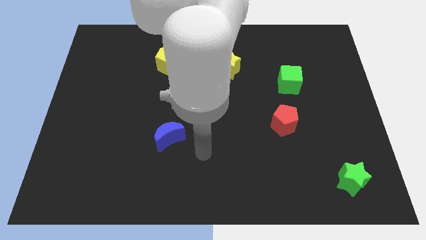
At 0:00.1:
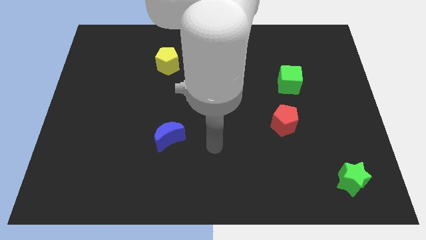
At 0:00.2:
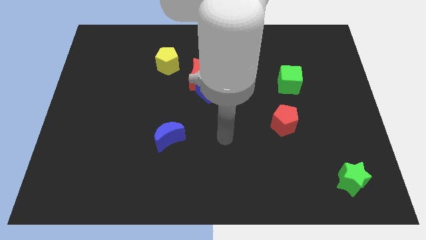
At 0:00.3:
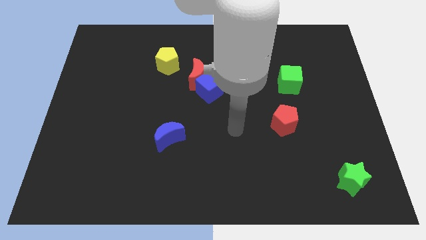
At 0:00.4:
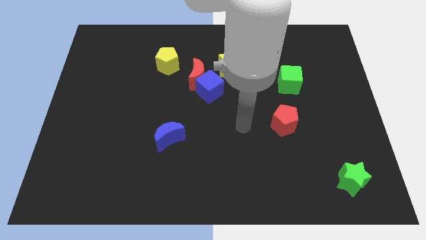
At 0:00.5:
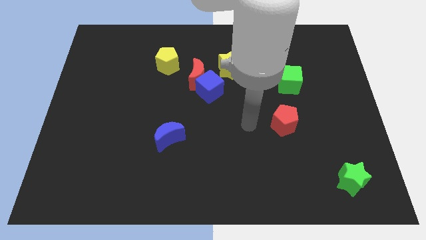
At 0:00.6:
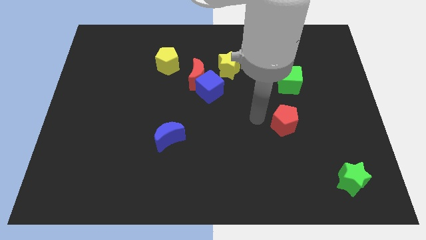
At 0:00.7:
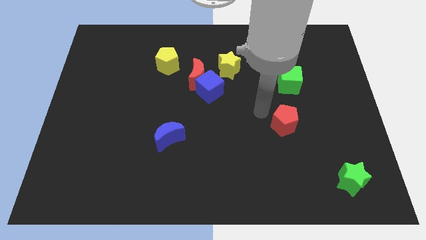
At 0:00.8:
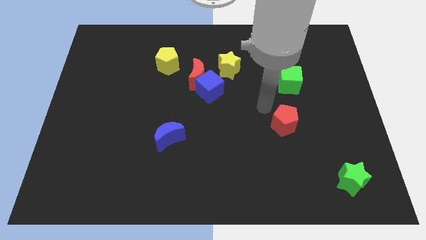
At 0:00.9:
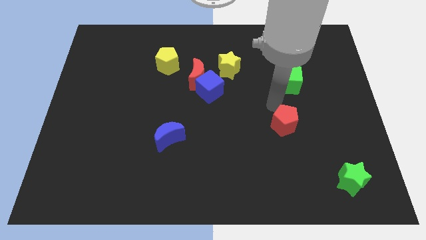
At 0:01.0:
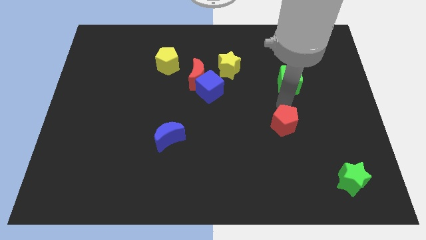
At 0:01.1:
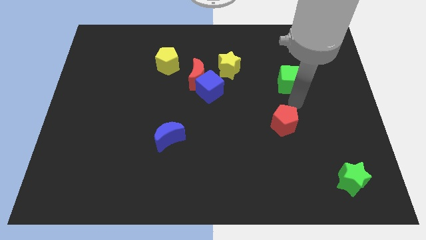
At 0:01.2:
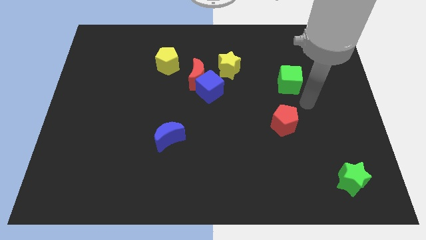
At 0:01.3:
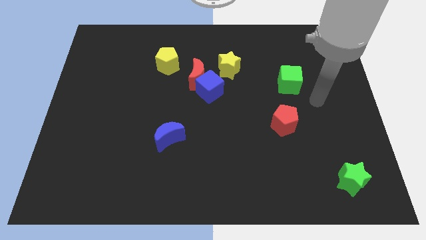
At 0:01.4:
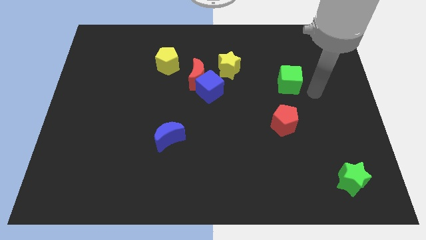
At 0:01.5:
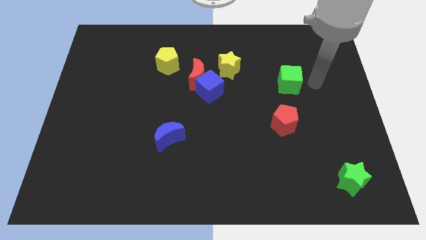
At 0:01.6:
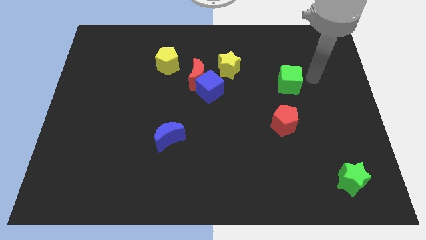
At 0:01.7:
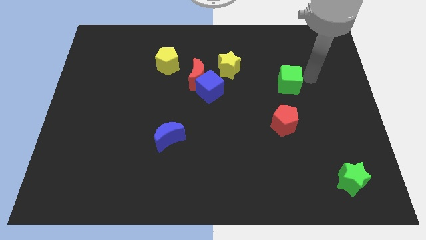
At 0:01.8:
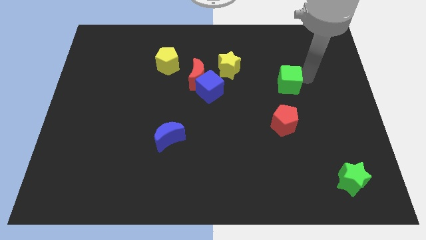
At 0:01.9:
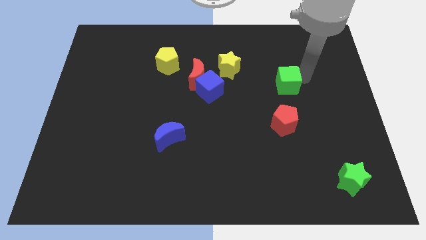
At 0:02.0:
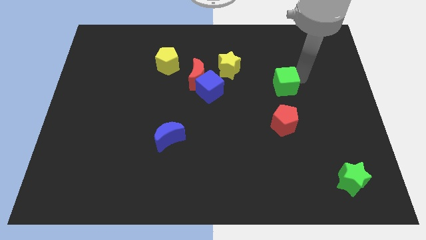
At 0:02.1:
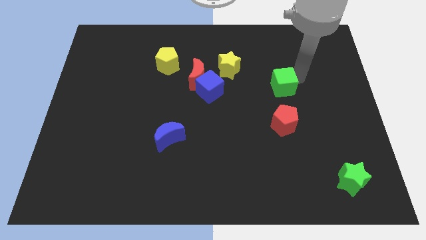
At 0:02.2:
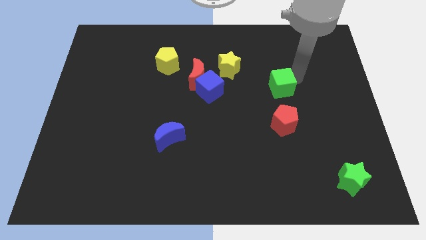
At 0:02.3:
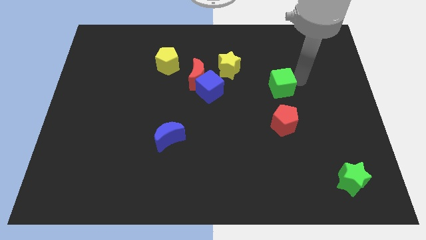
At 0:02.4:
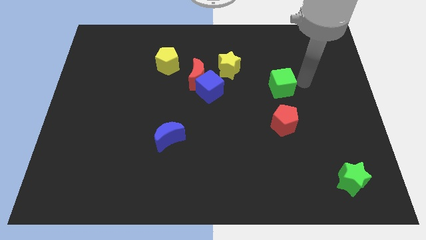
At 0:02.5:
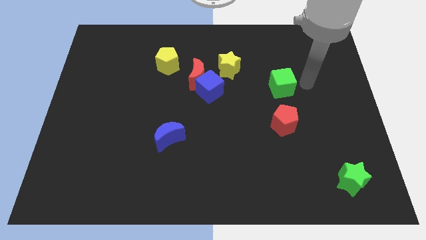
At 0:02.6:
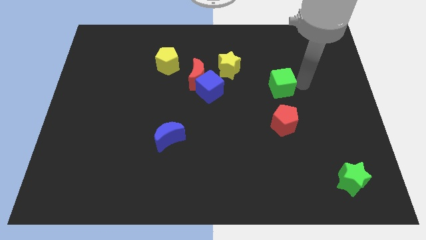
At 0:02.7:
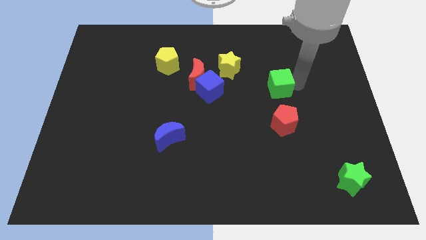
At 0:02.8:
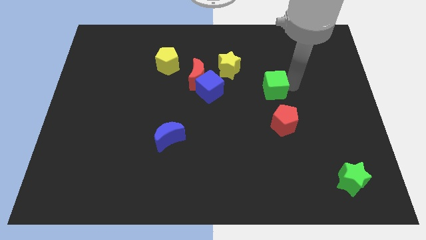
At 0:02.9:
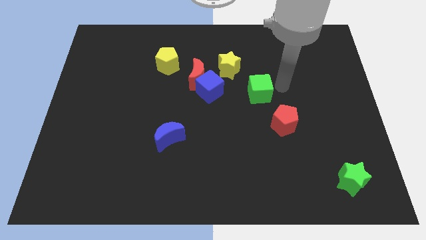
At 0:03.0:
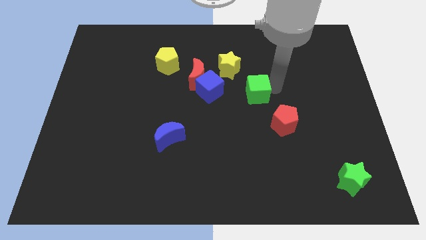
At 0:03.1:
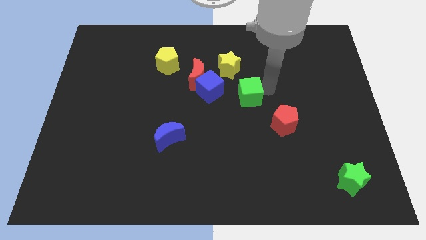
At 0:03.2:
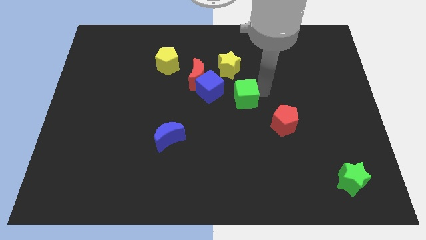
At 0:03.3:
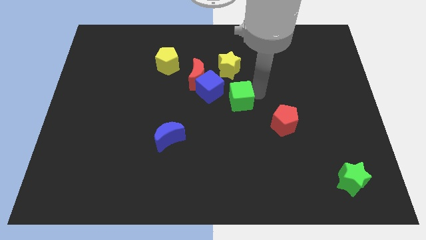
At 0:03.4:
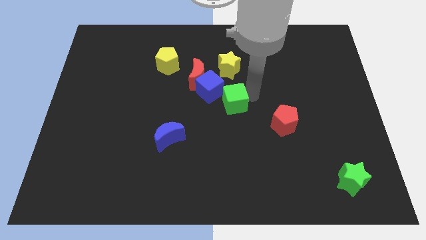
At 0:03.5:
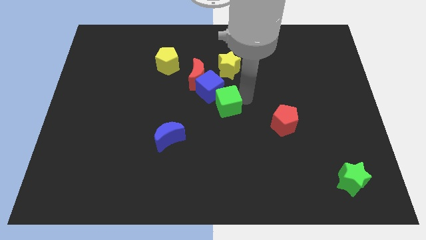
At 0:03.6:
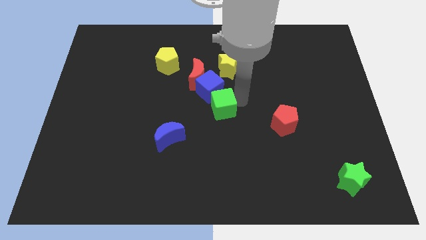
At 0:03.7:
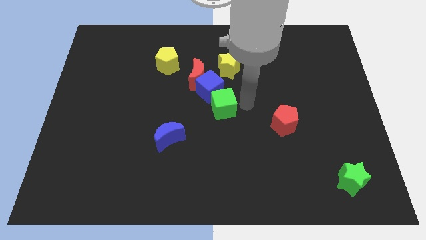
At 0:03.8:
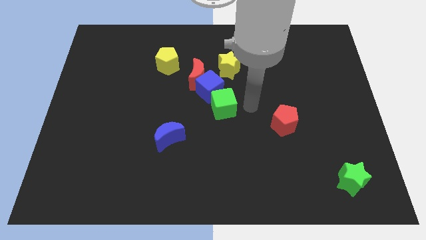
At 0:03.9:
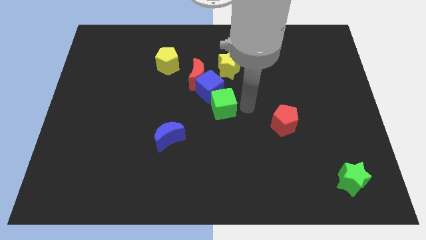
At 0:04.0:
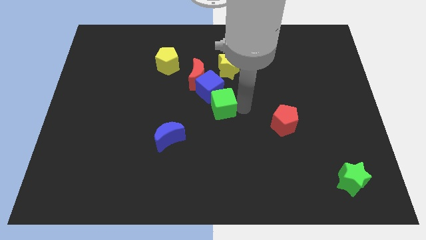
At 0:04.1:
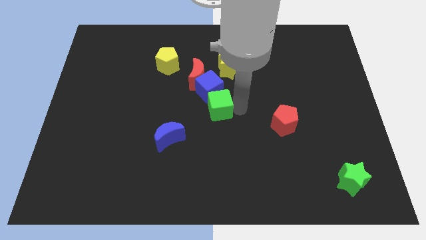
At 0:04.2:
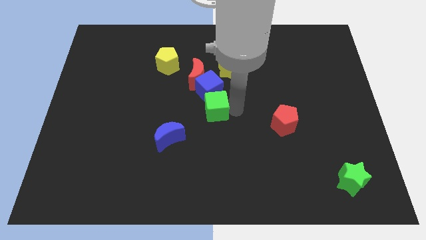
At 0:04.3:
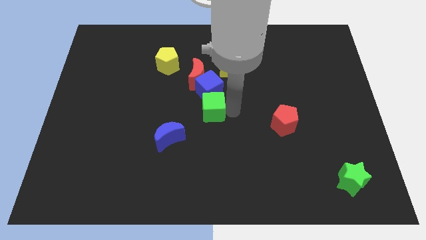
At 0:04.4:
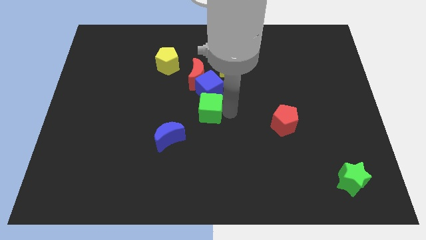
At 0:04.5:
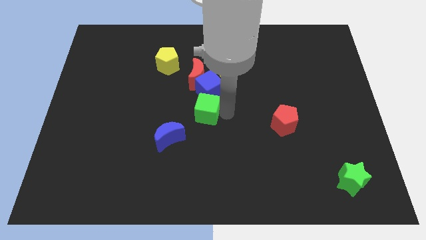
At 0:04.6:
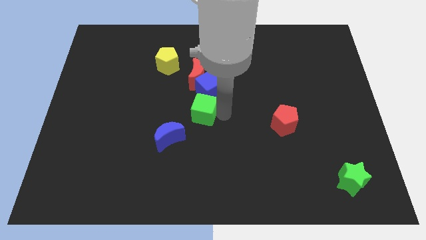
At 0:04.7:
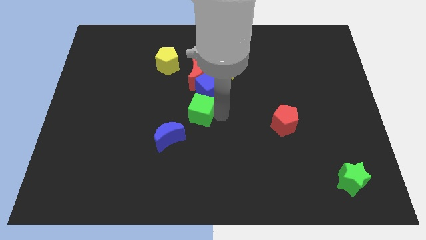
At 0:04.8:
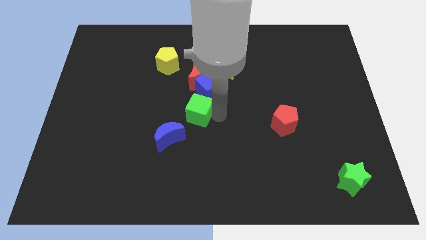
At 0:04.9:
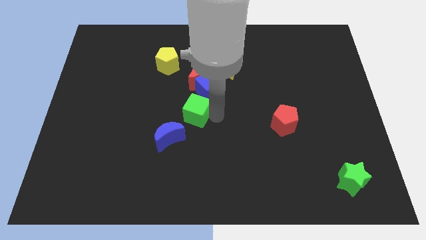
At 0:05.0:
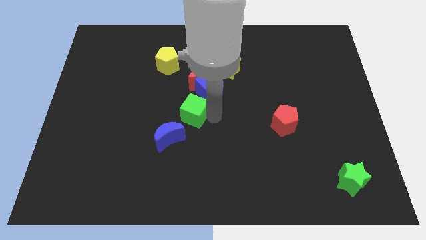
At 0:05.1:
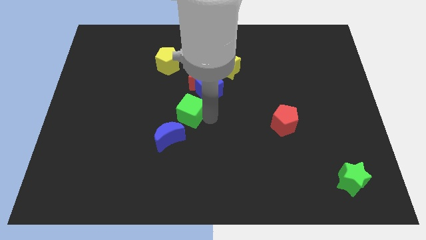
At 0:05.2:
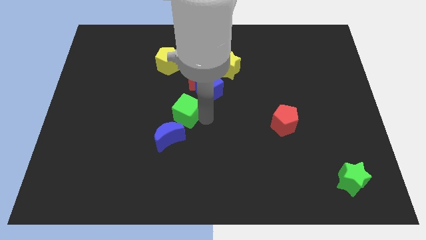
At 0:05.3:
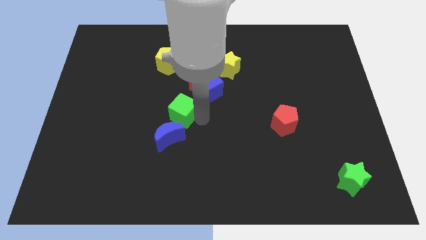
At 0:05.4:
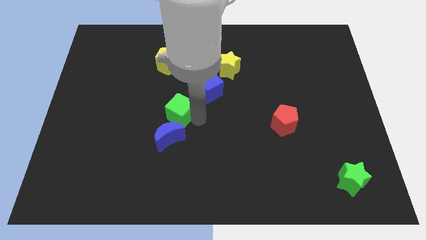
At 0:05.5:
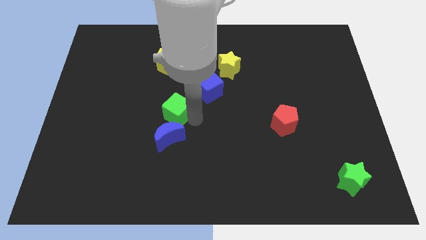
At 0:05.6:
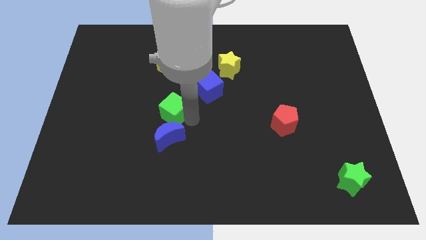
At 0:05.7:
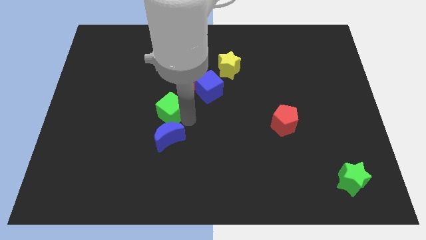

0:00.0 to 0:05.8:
slide the green cube below the yellow pentagon

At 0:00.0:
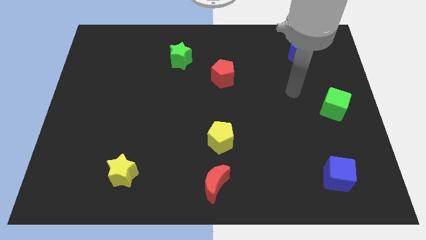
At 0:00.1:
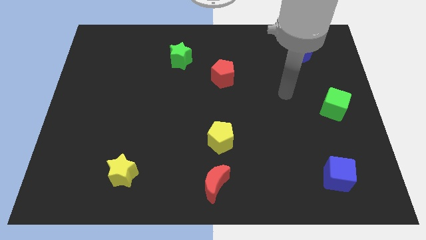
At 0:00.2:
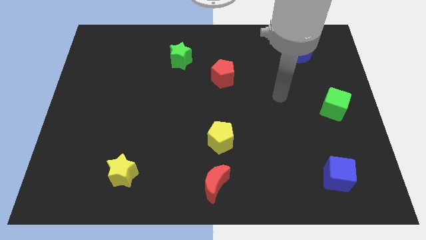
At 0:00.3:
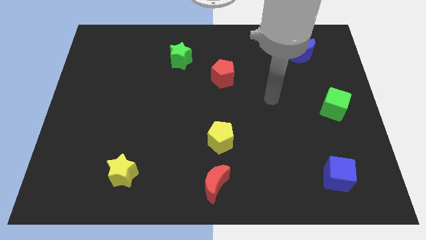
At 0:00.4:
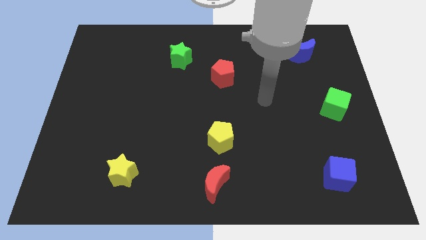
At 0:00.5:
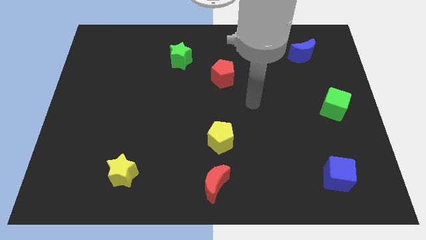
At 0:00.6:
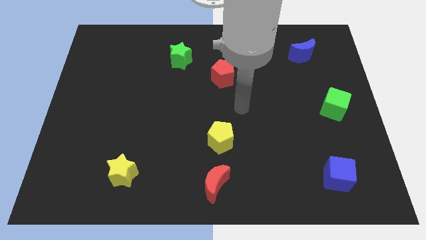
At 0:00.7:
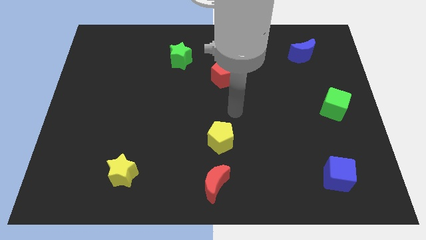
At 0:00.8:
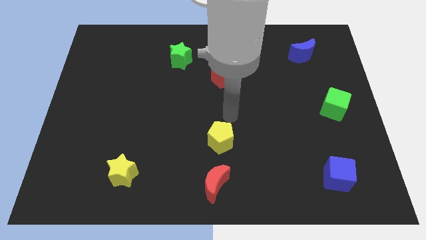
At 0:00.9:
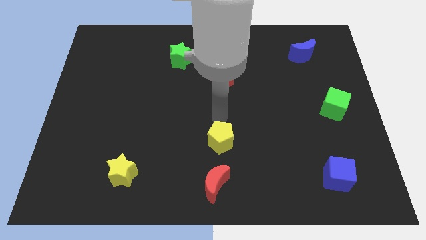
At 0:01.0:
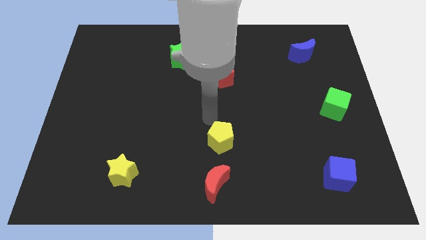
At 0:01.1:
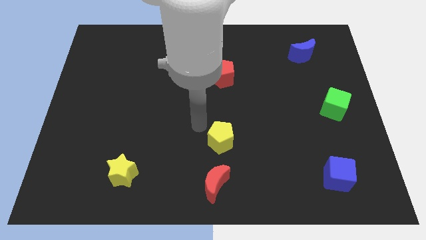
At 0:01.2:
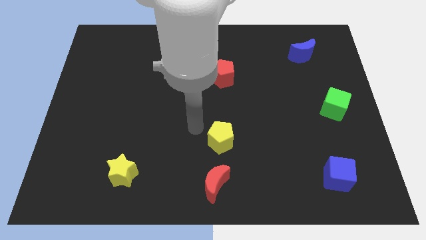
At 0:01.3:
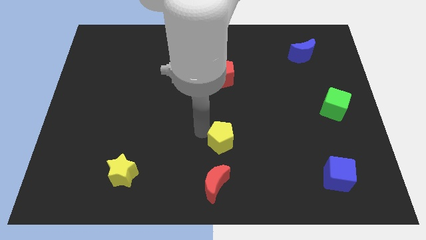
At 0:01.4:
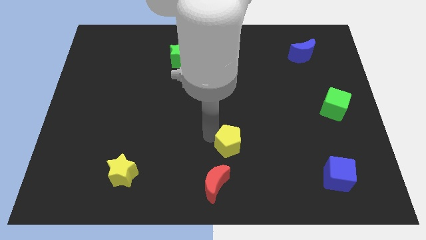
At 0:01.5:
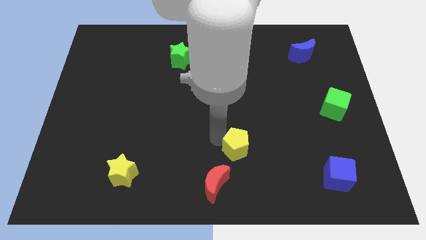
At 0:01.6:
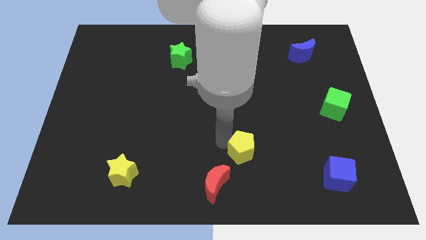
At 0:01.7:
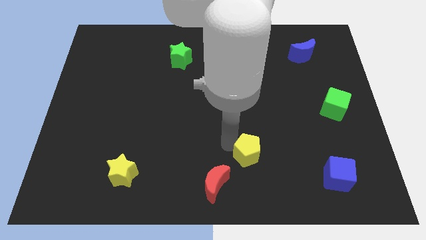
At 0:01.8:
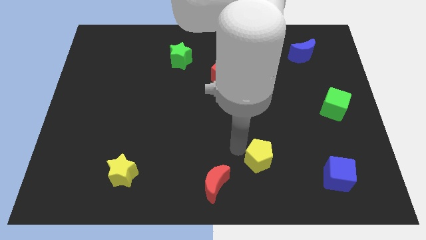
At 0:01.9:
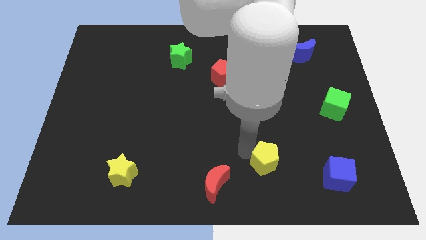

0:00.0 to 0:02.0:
put the yellow pentagon left of the blue cube
